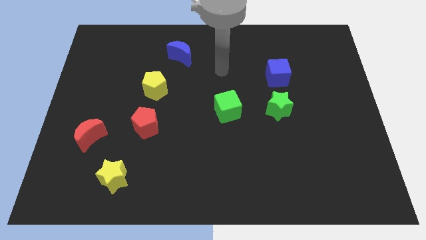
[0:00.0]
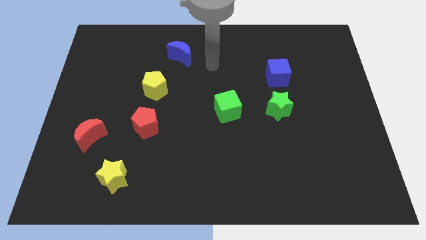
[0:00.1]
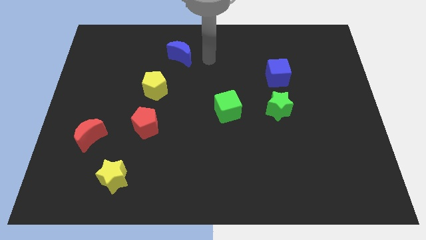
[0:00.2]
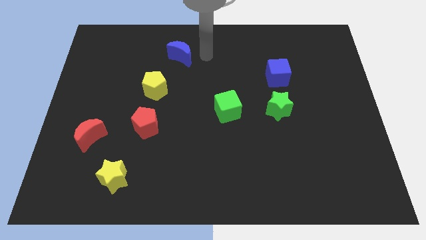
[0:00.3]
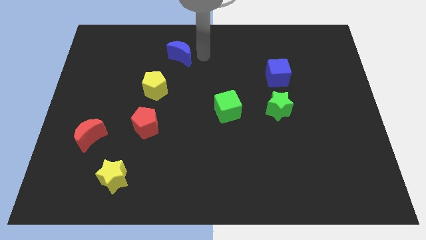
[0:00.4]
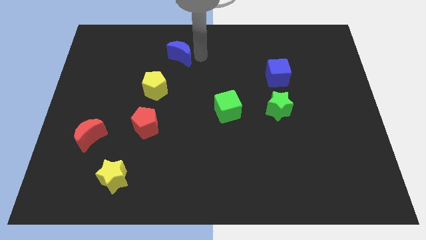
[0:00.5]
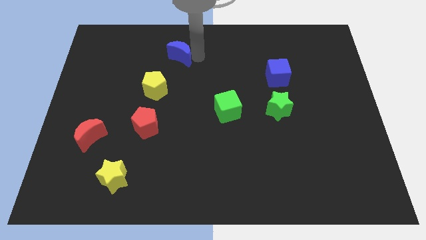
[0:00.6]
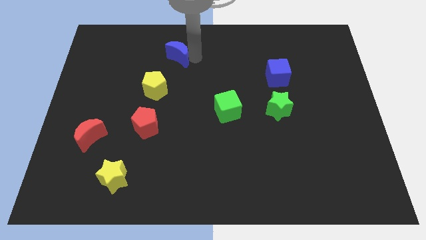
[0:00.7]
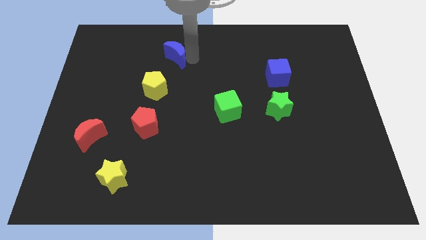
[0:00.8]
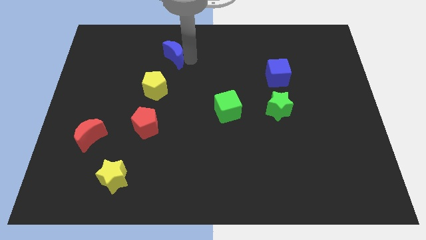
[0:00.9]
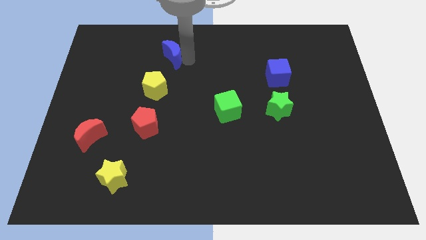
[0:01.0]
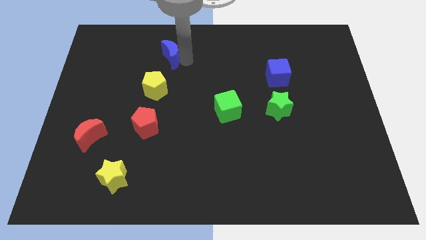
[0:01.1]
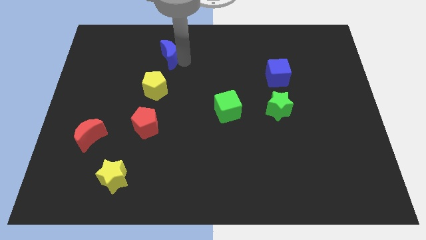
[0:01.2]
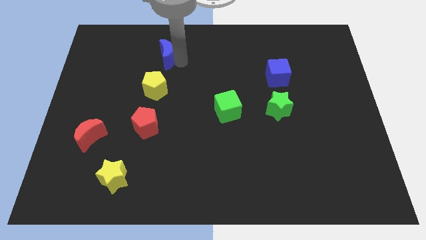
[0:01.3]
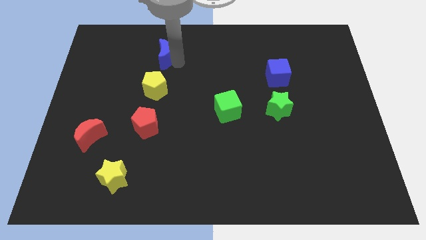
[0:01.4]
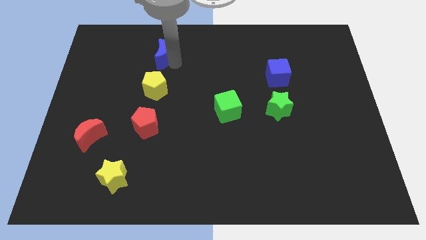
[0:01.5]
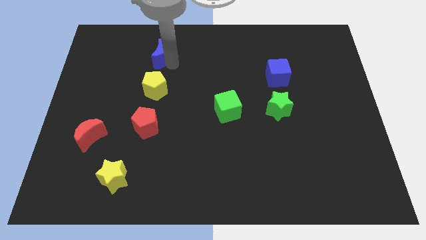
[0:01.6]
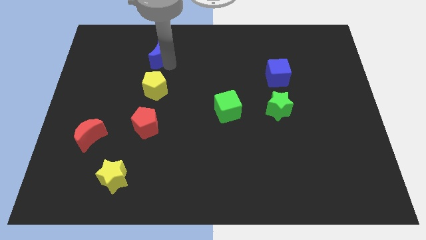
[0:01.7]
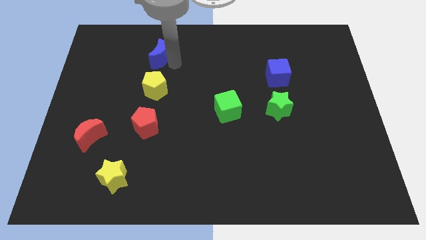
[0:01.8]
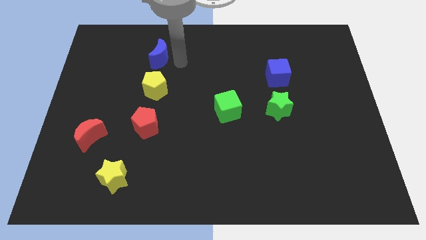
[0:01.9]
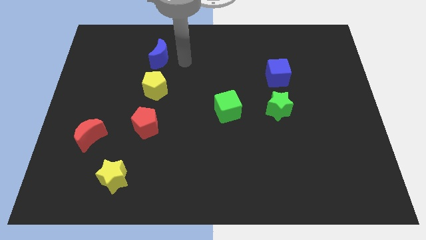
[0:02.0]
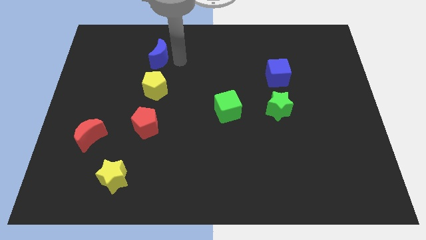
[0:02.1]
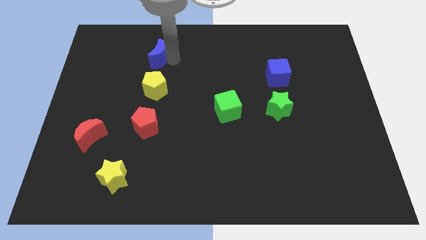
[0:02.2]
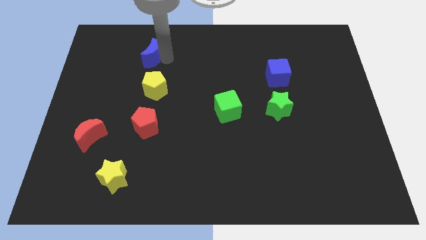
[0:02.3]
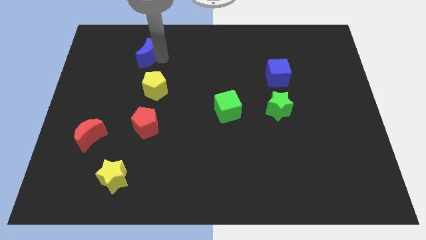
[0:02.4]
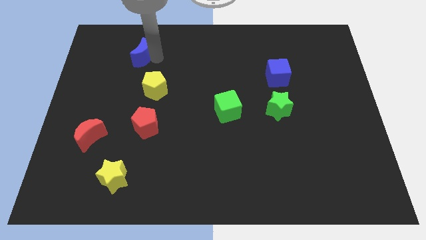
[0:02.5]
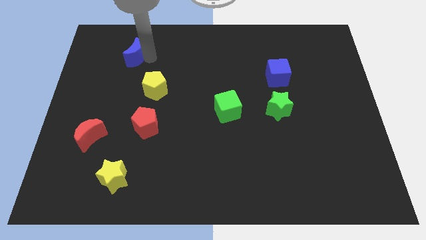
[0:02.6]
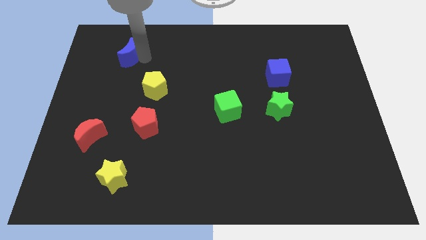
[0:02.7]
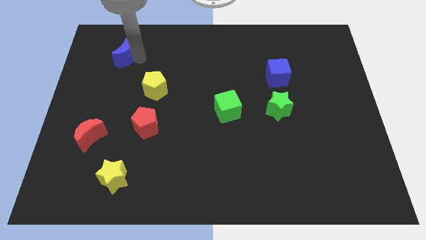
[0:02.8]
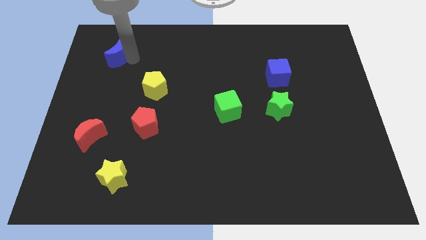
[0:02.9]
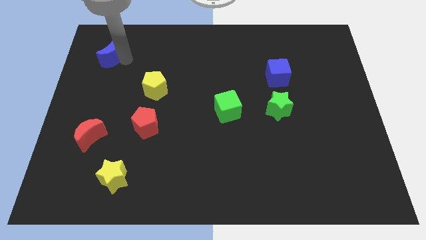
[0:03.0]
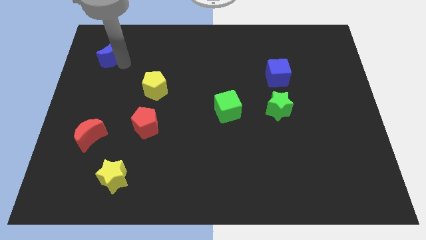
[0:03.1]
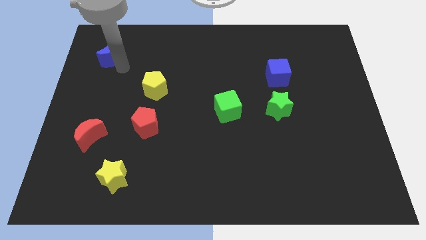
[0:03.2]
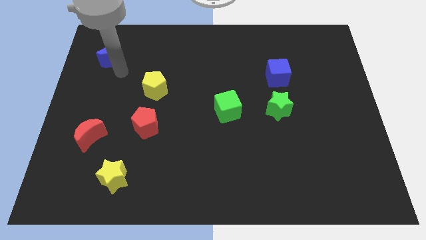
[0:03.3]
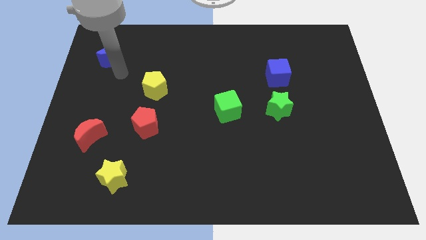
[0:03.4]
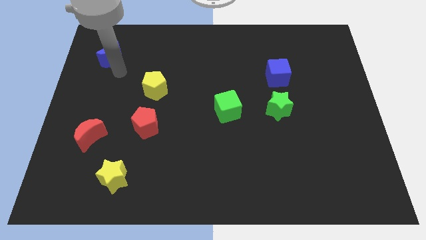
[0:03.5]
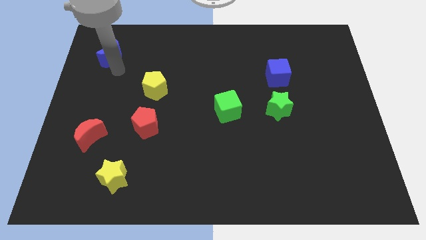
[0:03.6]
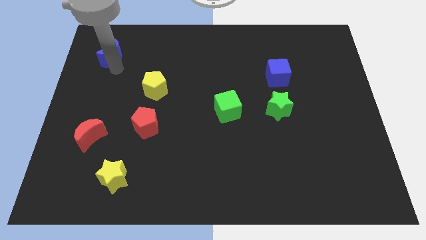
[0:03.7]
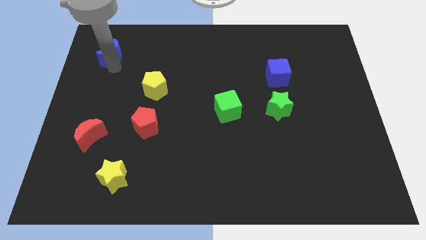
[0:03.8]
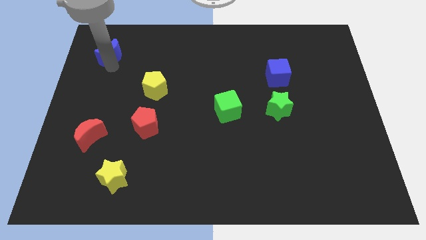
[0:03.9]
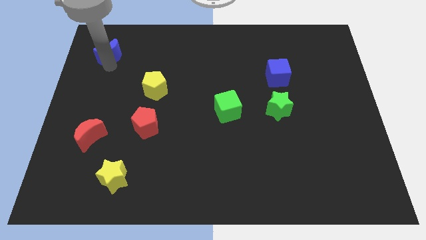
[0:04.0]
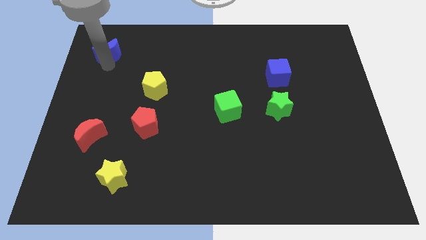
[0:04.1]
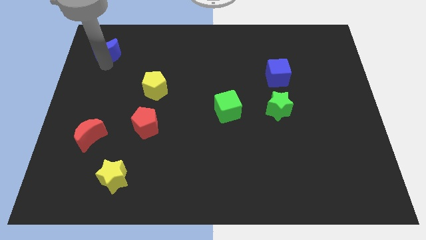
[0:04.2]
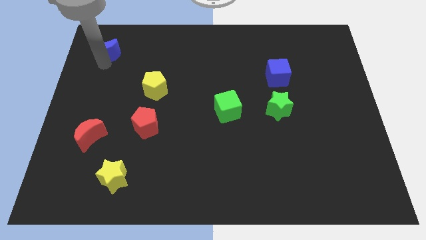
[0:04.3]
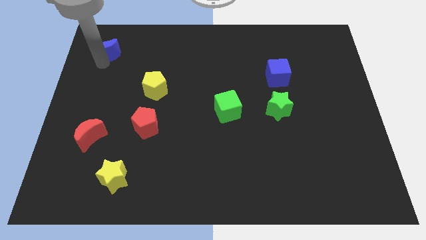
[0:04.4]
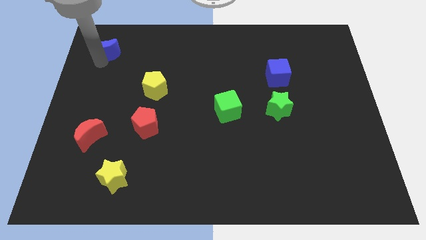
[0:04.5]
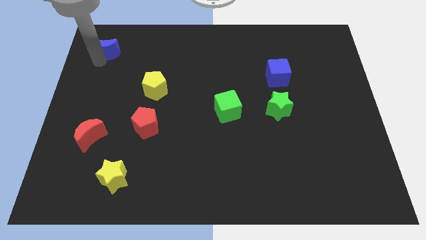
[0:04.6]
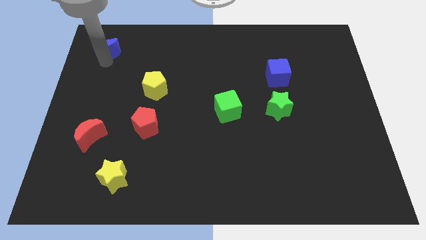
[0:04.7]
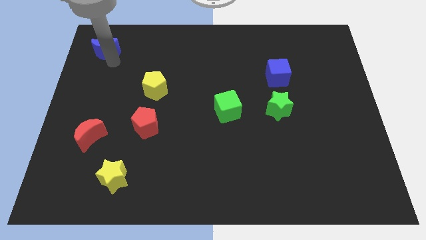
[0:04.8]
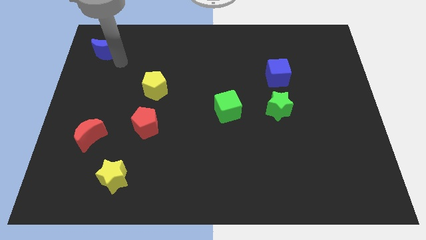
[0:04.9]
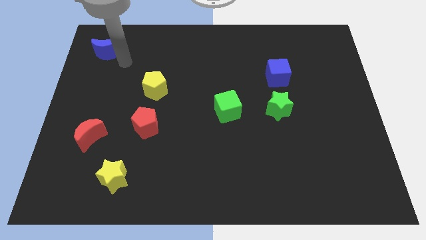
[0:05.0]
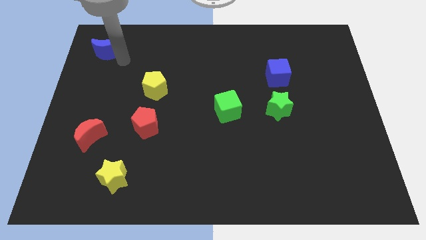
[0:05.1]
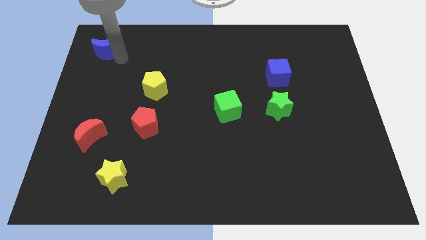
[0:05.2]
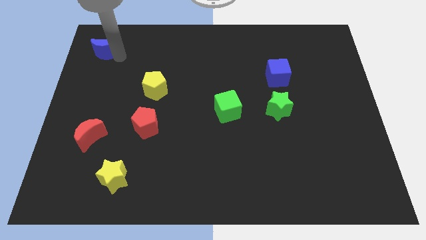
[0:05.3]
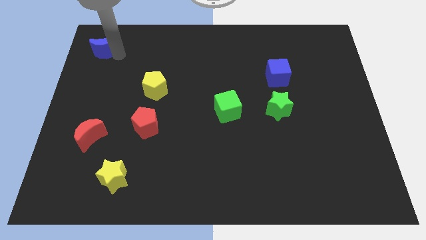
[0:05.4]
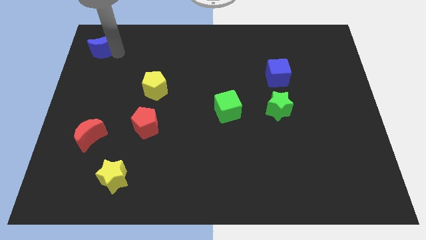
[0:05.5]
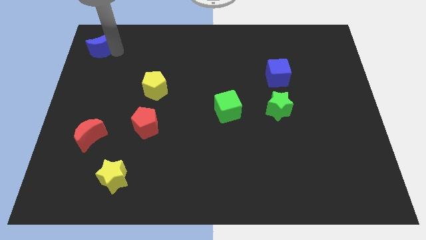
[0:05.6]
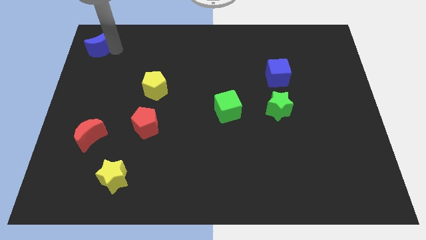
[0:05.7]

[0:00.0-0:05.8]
push the blue moon to the top left of the board

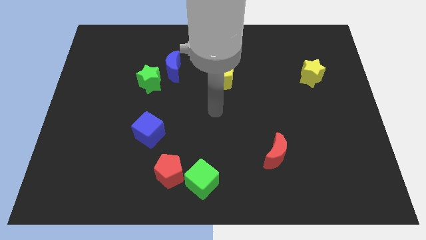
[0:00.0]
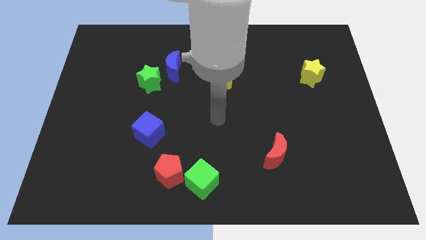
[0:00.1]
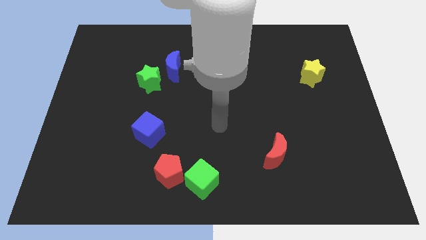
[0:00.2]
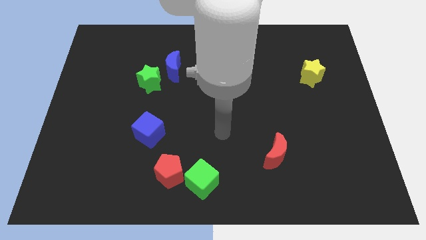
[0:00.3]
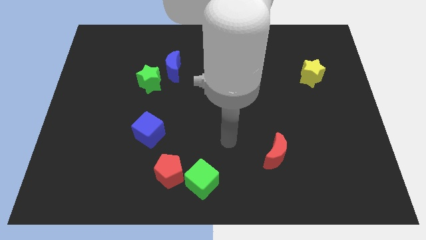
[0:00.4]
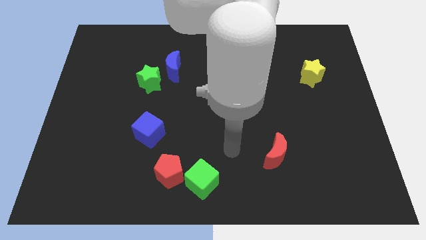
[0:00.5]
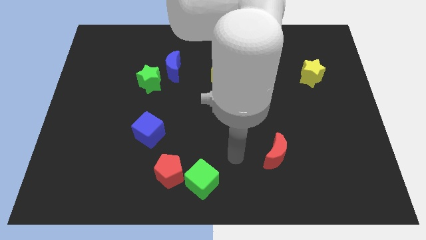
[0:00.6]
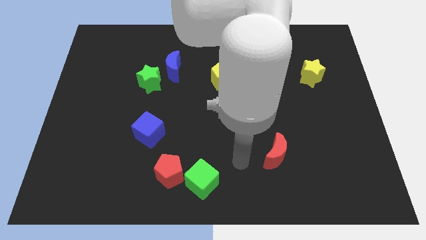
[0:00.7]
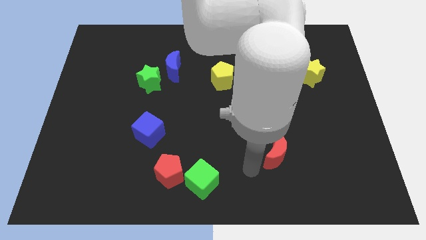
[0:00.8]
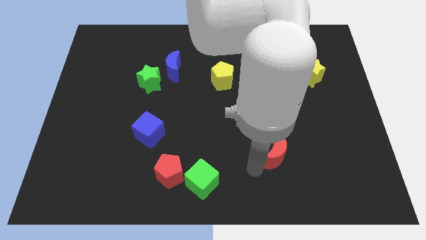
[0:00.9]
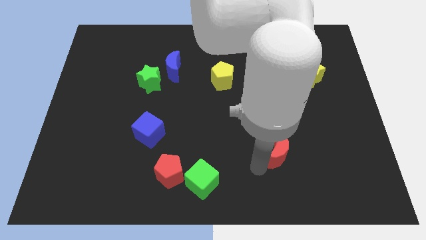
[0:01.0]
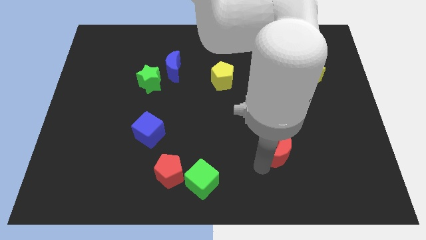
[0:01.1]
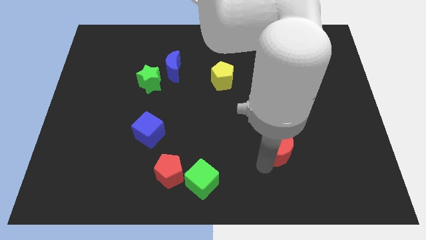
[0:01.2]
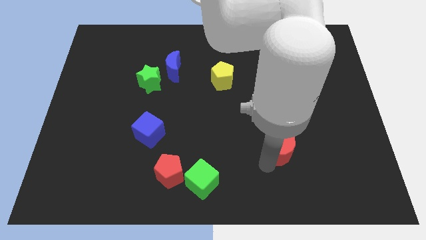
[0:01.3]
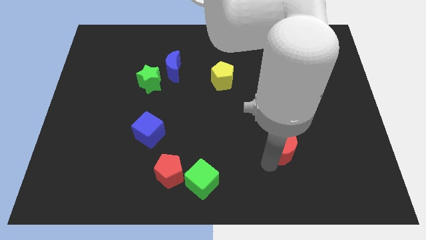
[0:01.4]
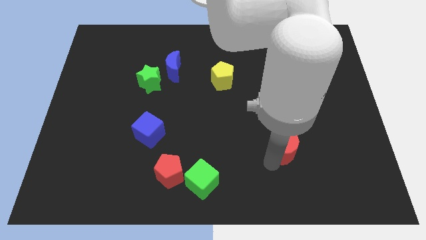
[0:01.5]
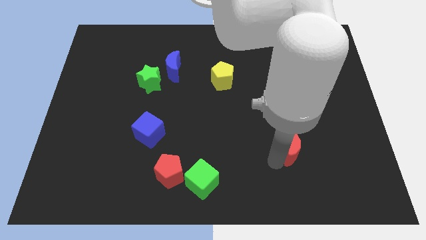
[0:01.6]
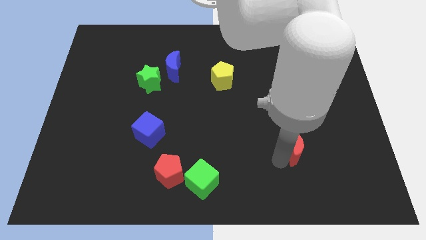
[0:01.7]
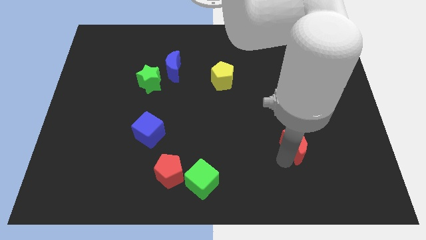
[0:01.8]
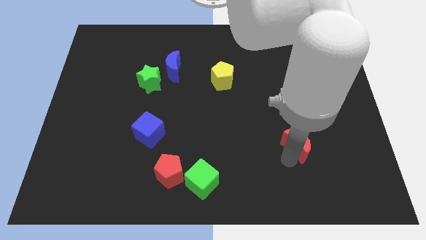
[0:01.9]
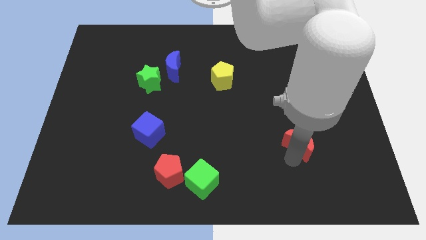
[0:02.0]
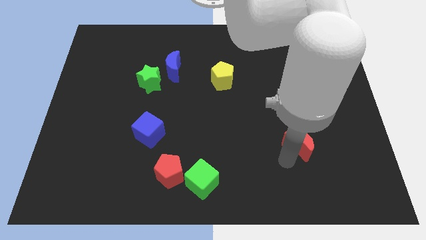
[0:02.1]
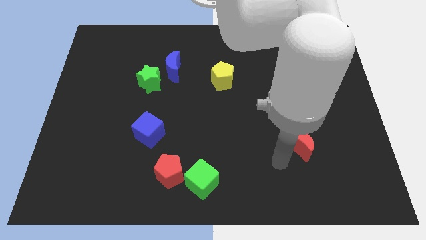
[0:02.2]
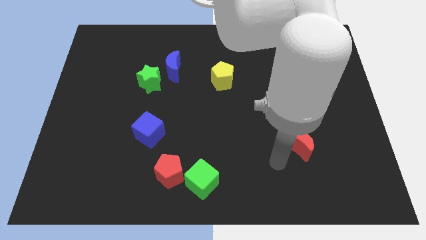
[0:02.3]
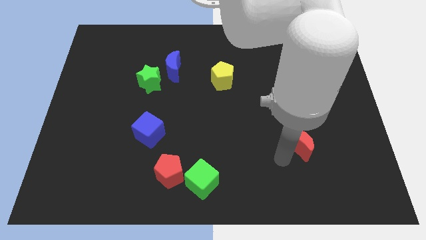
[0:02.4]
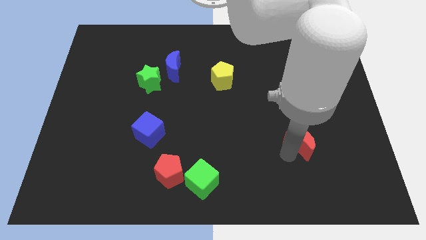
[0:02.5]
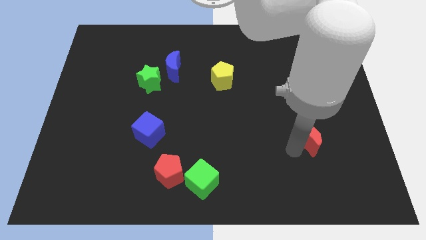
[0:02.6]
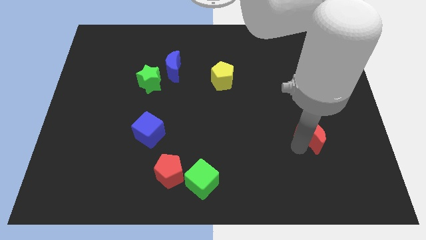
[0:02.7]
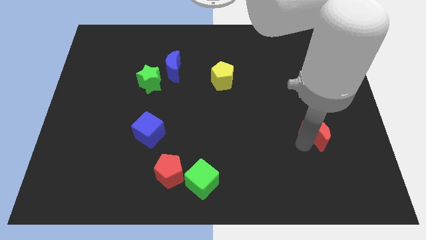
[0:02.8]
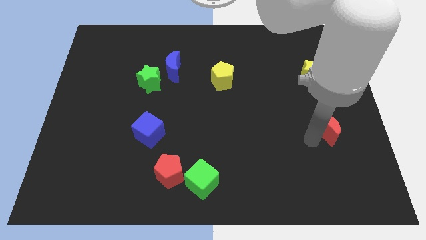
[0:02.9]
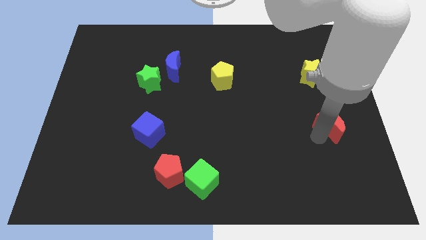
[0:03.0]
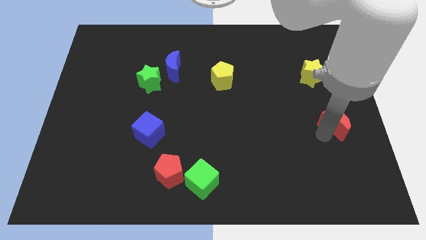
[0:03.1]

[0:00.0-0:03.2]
push the red moon to the center right
